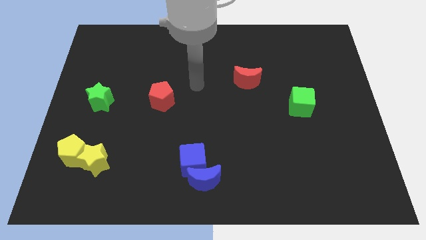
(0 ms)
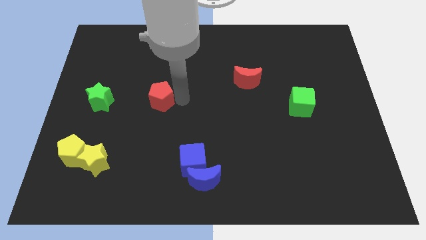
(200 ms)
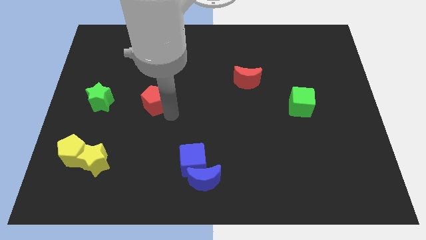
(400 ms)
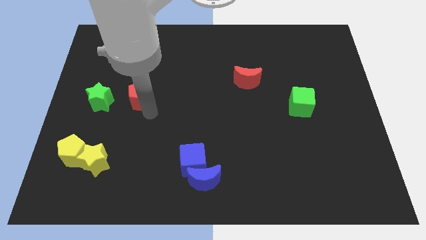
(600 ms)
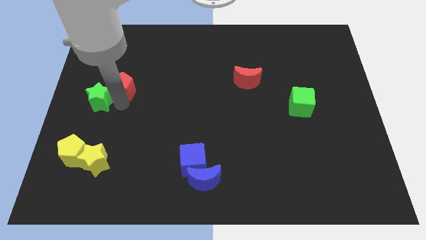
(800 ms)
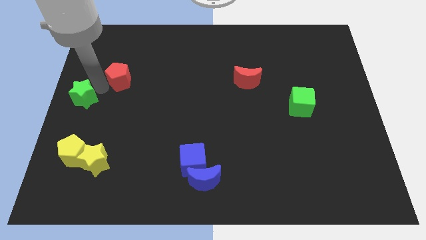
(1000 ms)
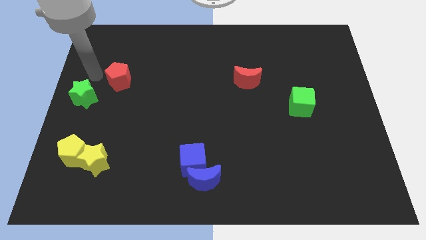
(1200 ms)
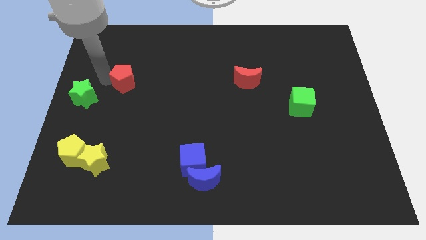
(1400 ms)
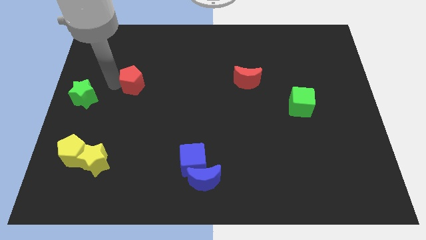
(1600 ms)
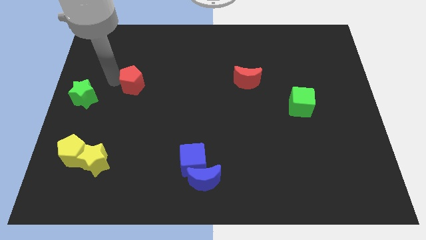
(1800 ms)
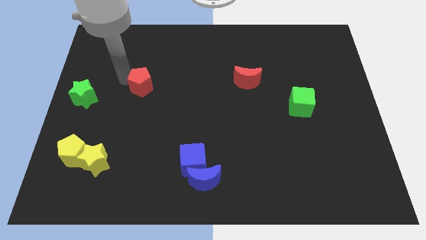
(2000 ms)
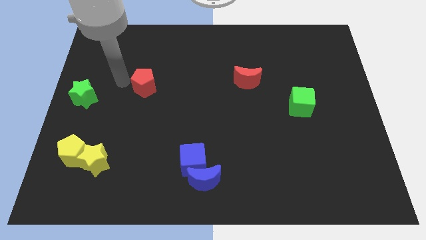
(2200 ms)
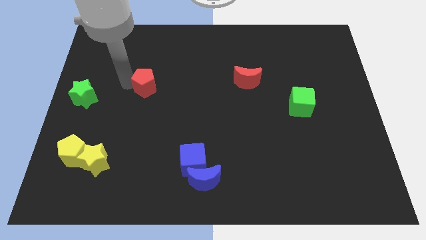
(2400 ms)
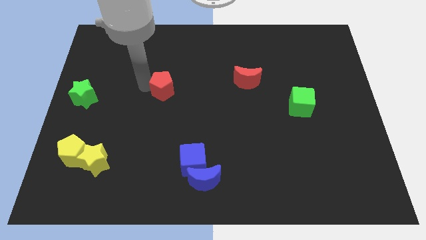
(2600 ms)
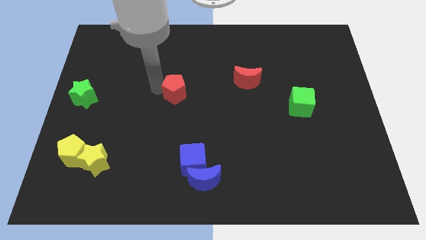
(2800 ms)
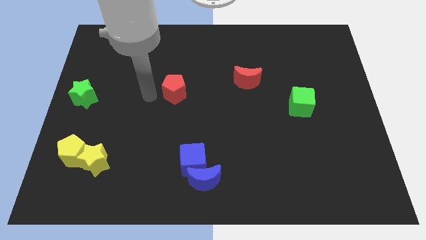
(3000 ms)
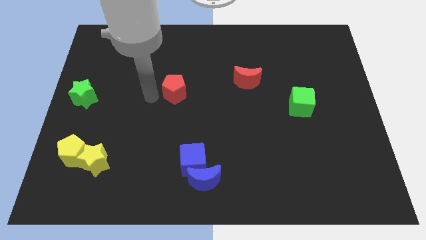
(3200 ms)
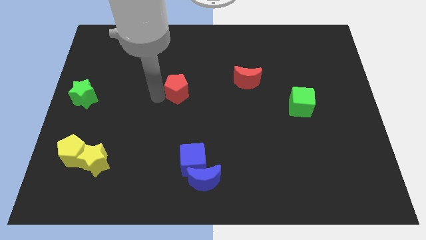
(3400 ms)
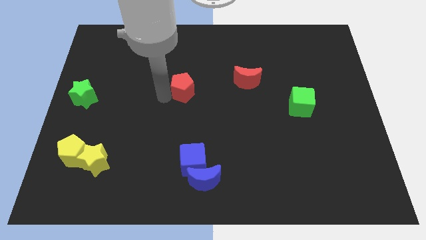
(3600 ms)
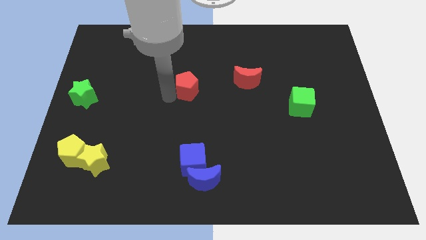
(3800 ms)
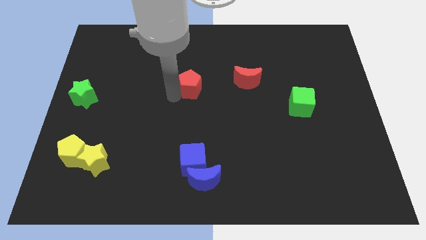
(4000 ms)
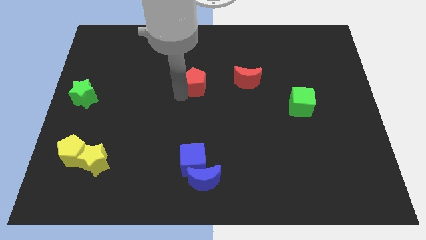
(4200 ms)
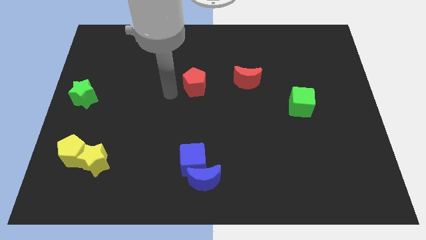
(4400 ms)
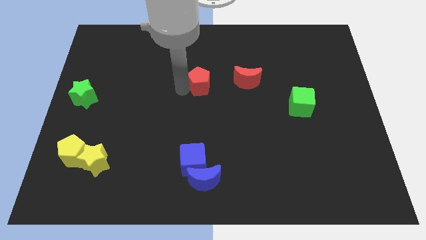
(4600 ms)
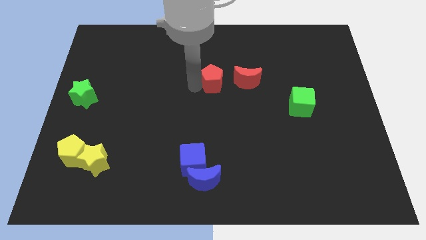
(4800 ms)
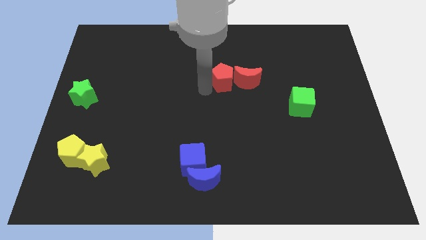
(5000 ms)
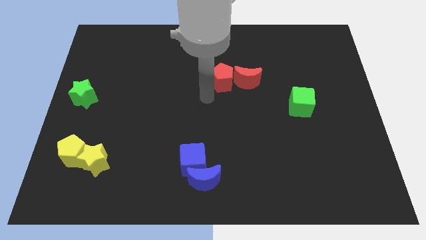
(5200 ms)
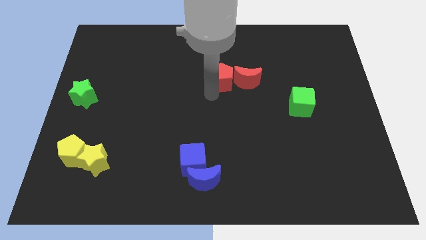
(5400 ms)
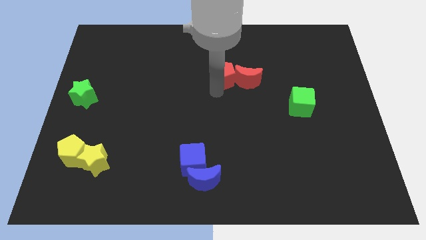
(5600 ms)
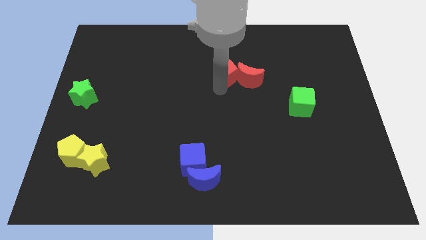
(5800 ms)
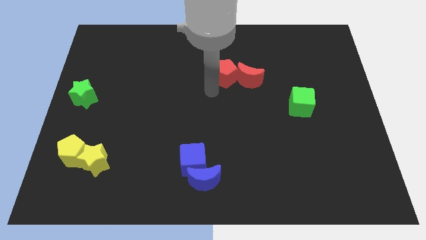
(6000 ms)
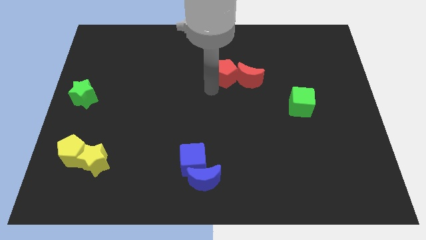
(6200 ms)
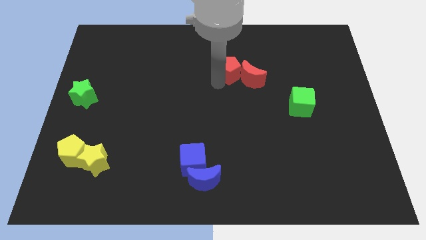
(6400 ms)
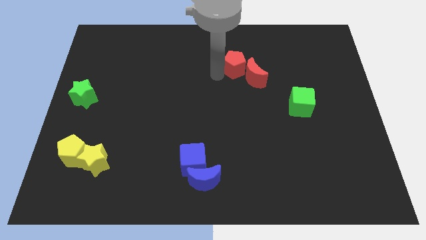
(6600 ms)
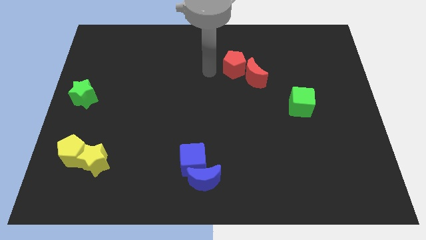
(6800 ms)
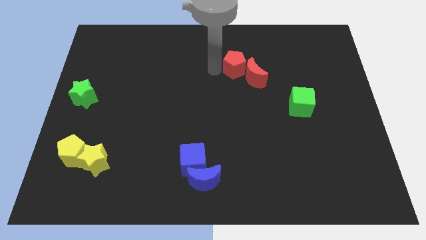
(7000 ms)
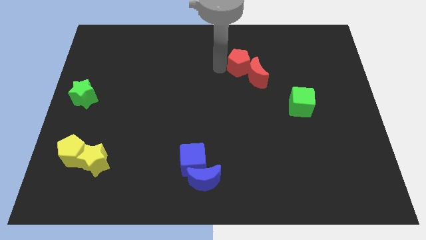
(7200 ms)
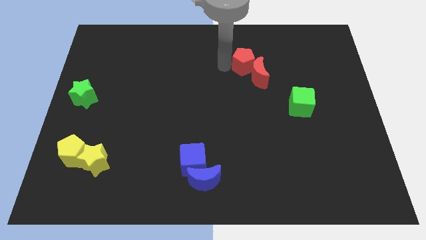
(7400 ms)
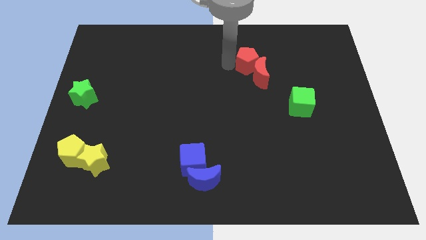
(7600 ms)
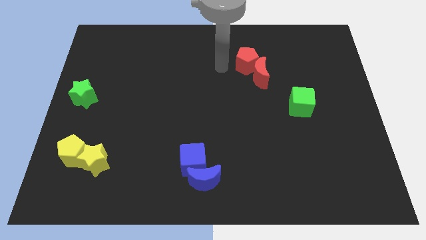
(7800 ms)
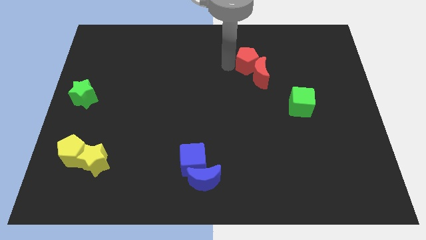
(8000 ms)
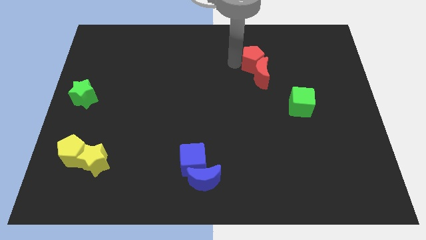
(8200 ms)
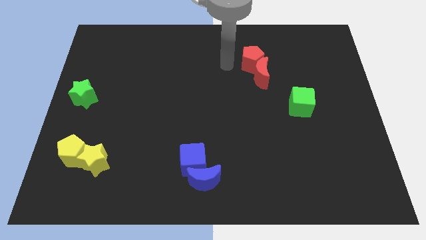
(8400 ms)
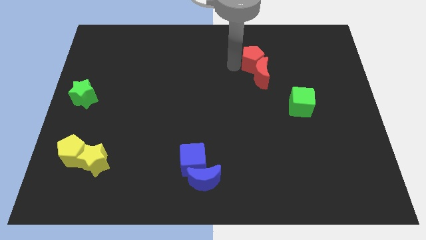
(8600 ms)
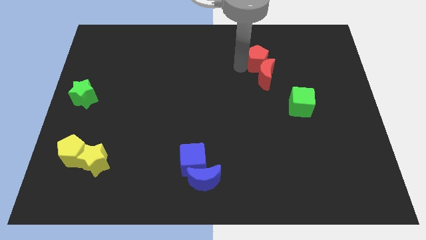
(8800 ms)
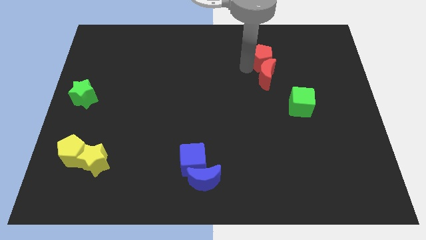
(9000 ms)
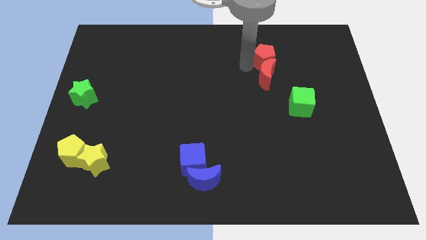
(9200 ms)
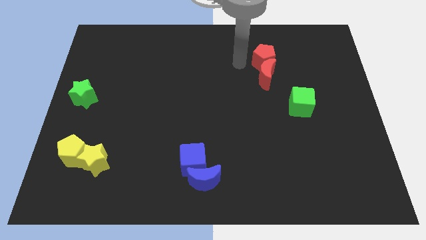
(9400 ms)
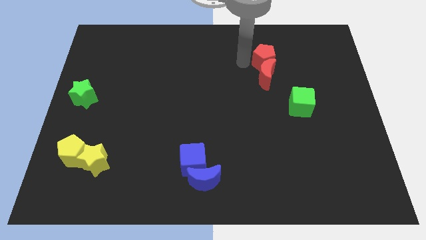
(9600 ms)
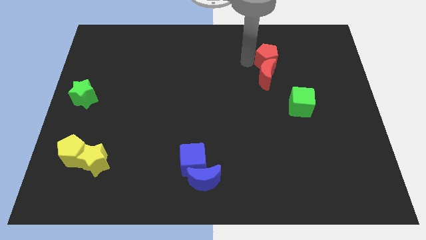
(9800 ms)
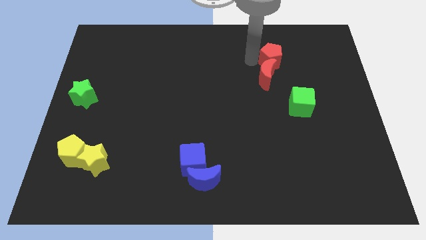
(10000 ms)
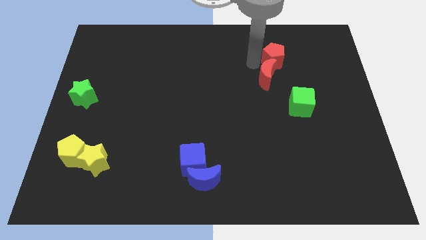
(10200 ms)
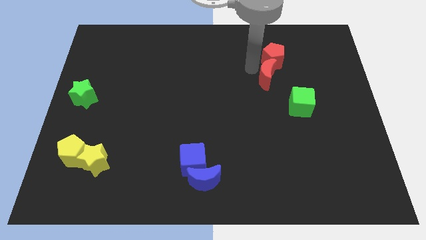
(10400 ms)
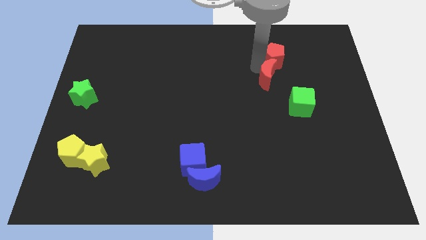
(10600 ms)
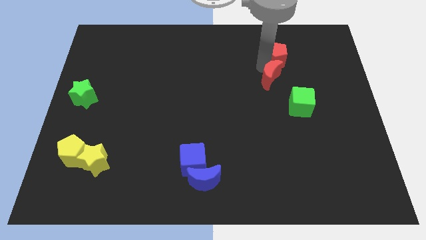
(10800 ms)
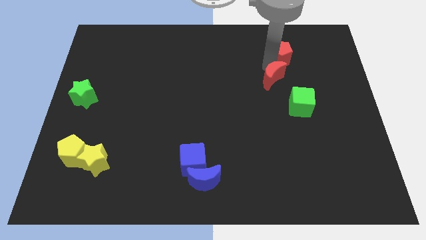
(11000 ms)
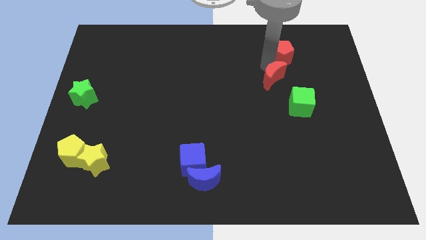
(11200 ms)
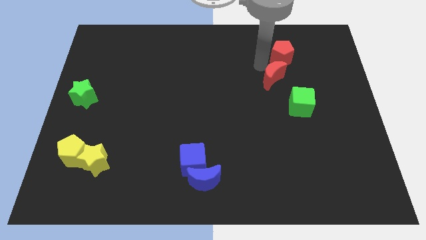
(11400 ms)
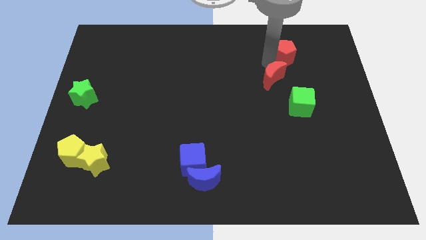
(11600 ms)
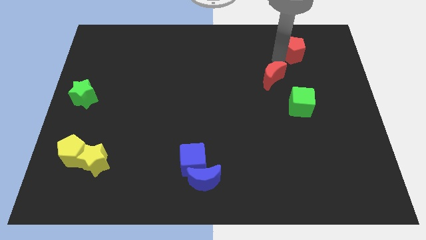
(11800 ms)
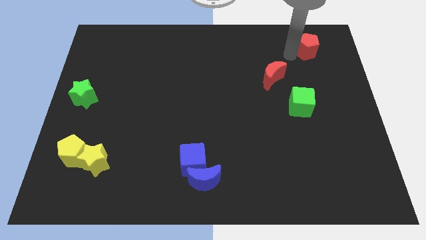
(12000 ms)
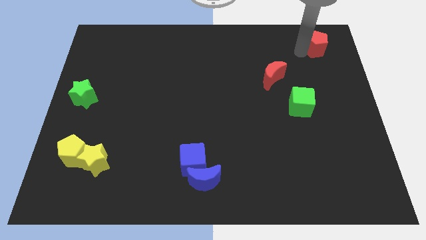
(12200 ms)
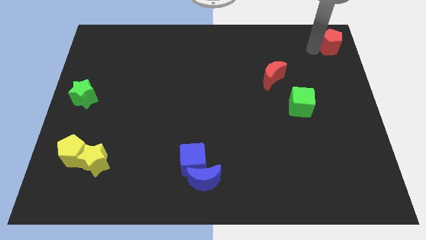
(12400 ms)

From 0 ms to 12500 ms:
move the red pentagon to the top right of the board
